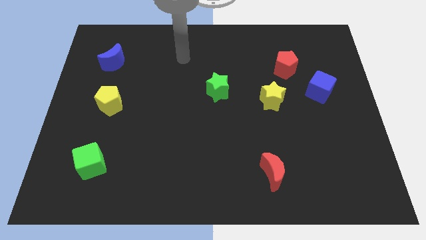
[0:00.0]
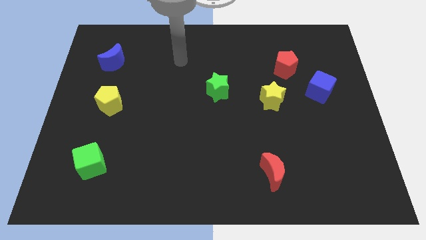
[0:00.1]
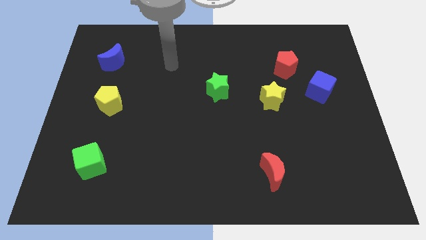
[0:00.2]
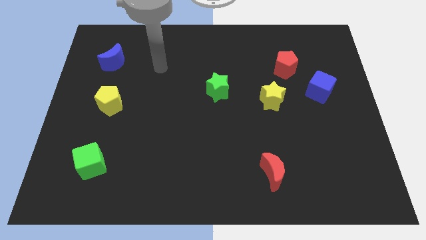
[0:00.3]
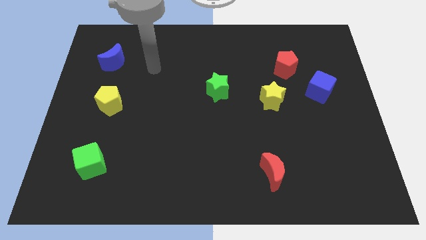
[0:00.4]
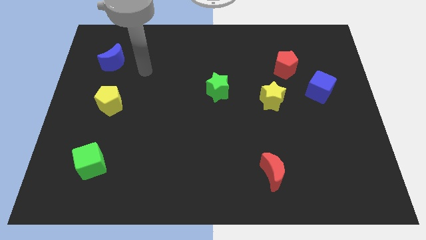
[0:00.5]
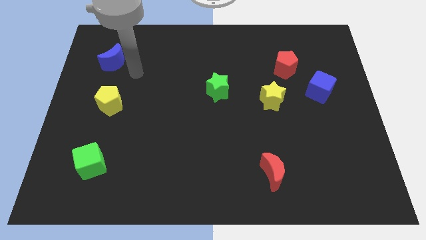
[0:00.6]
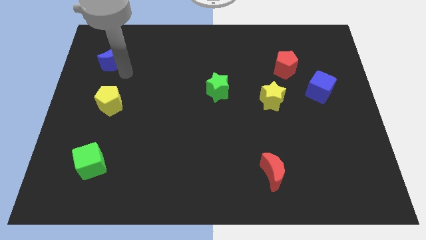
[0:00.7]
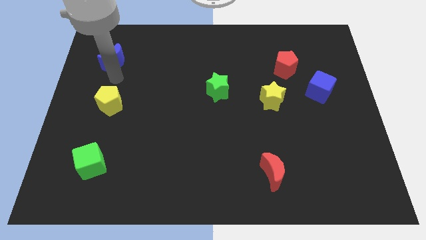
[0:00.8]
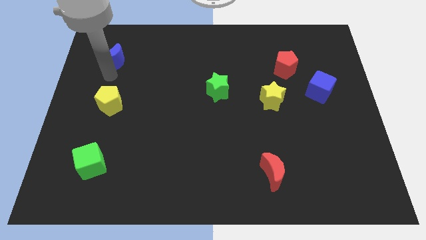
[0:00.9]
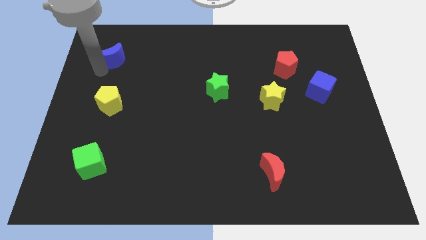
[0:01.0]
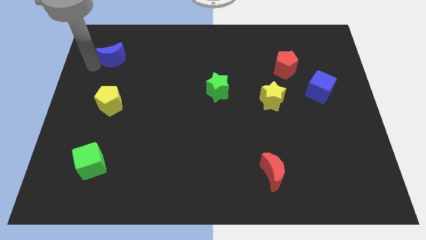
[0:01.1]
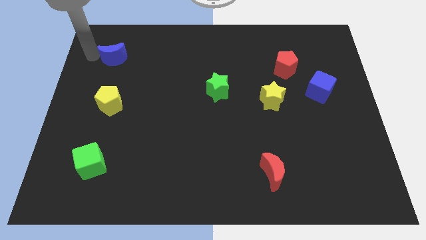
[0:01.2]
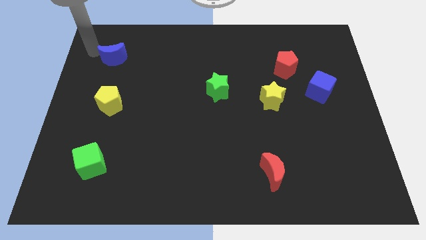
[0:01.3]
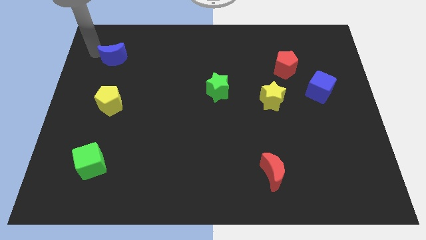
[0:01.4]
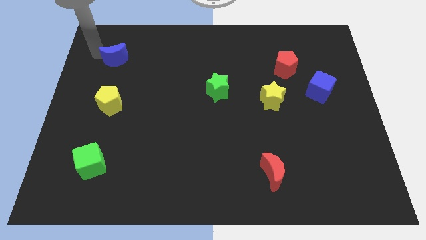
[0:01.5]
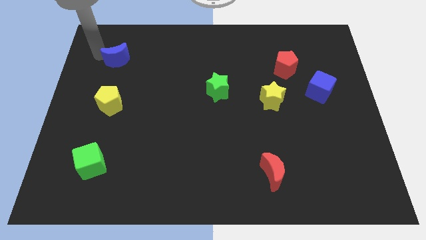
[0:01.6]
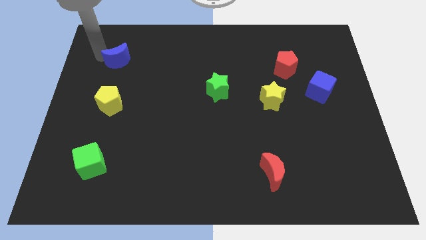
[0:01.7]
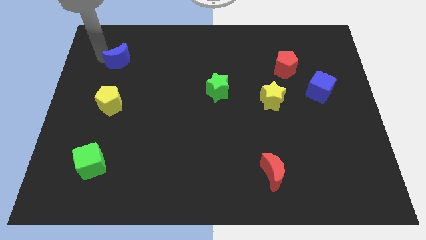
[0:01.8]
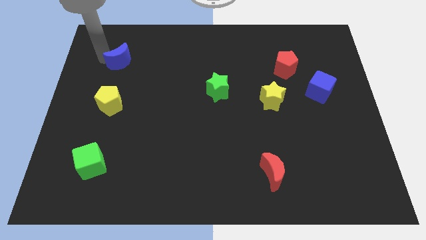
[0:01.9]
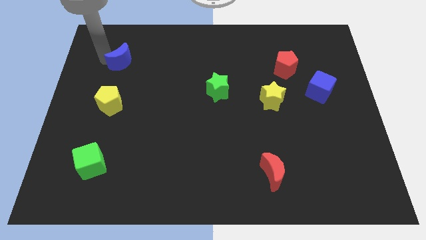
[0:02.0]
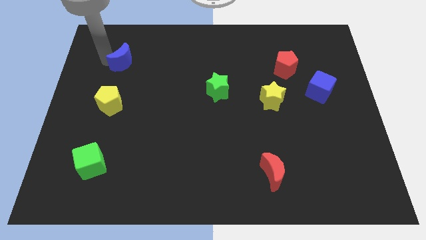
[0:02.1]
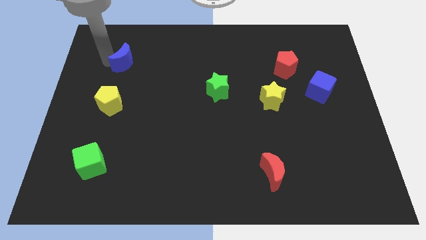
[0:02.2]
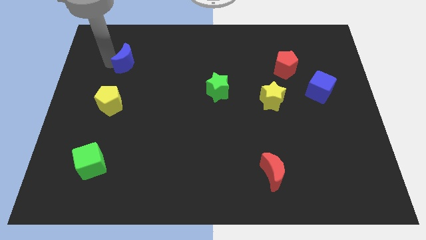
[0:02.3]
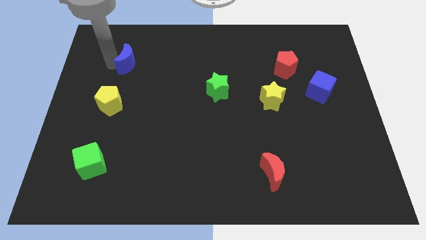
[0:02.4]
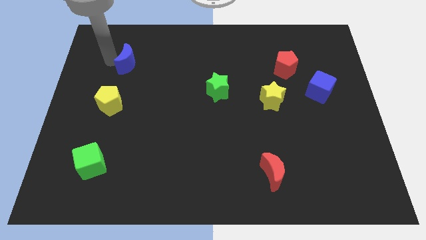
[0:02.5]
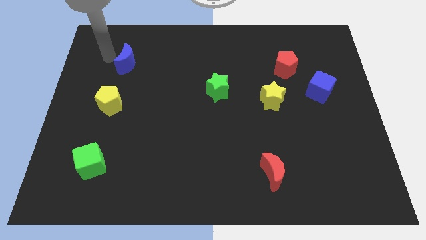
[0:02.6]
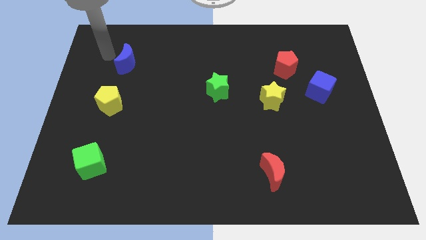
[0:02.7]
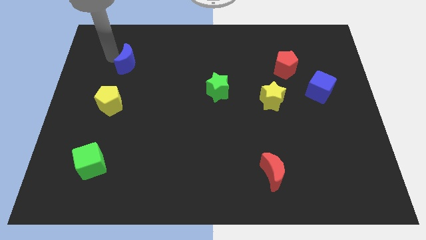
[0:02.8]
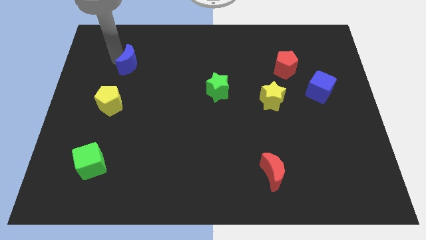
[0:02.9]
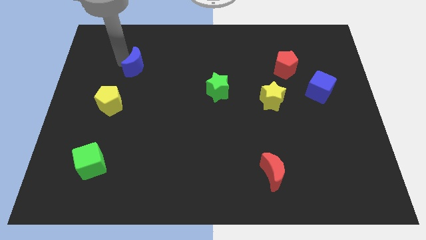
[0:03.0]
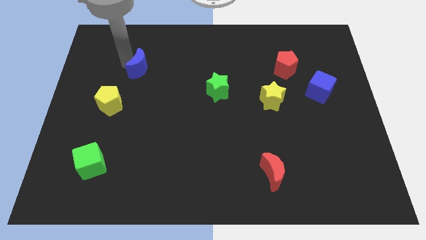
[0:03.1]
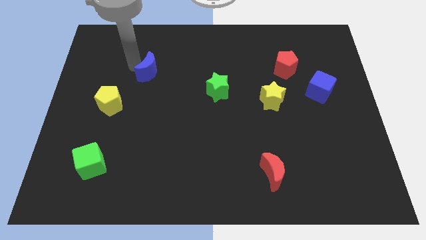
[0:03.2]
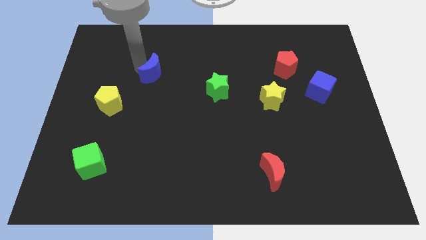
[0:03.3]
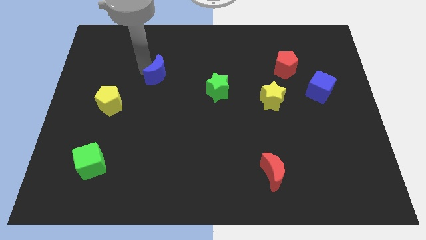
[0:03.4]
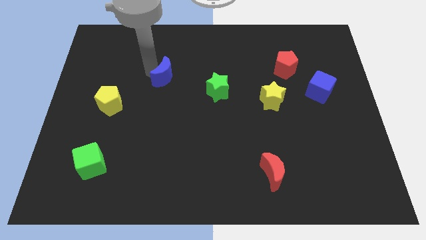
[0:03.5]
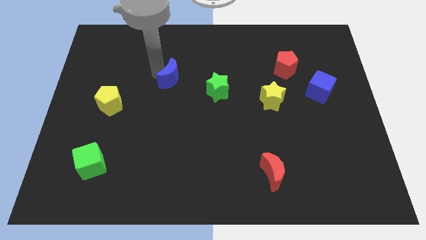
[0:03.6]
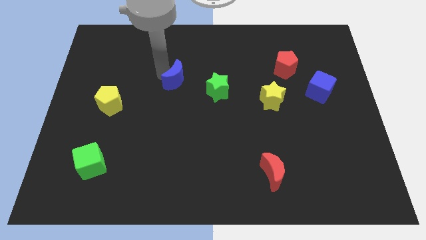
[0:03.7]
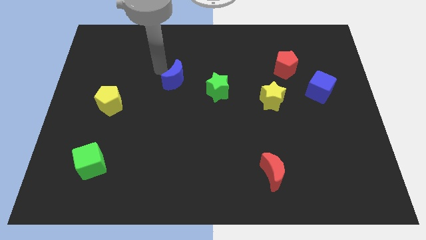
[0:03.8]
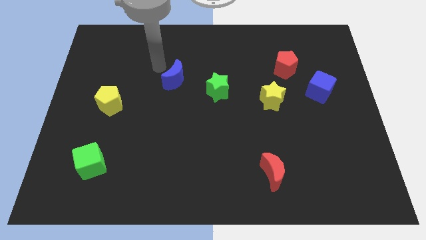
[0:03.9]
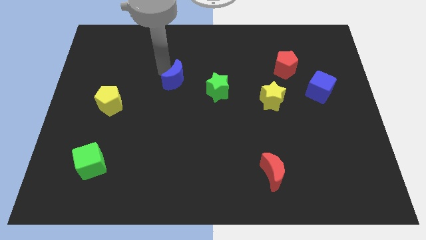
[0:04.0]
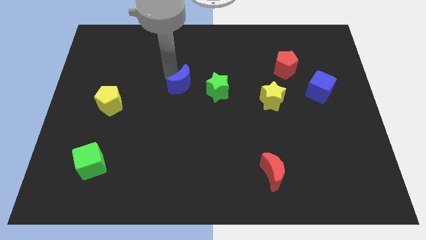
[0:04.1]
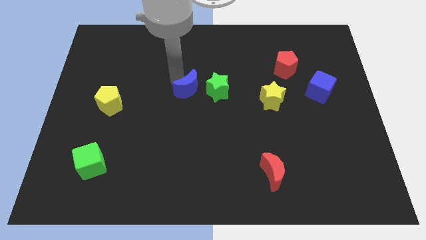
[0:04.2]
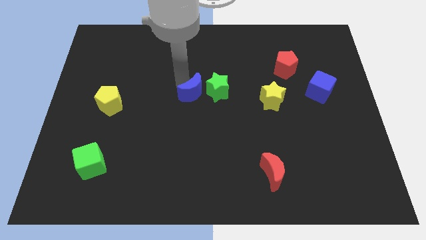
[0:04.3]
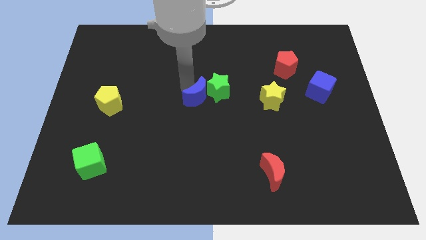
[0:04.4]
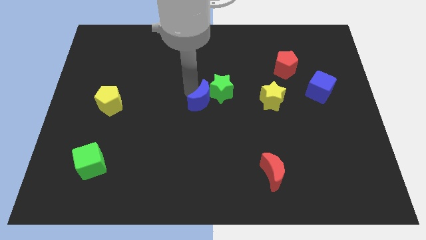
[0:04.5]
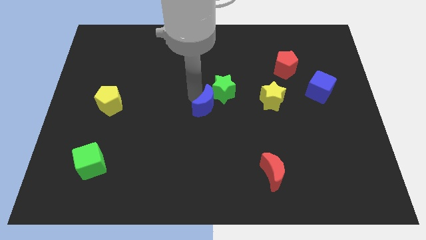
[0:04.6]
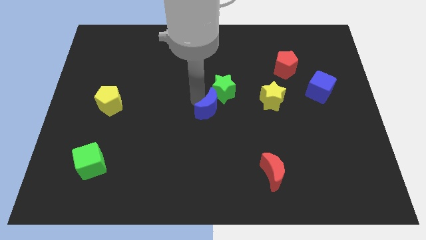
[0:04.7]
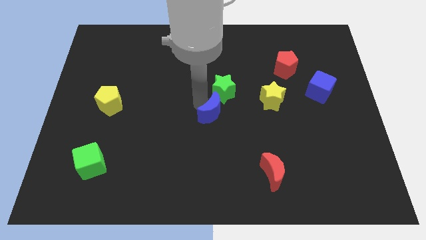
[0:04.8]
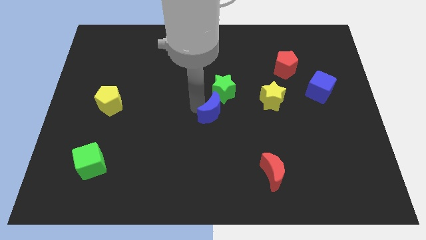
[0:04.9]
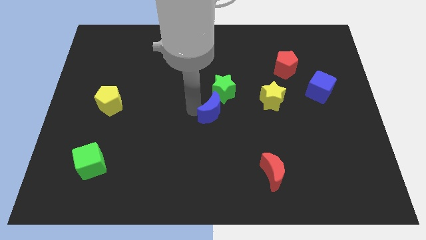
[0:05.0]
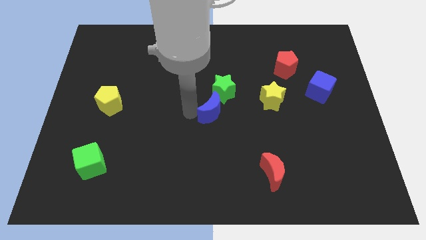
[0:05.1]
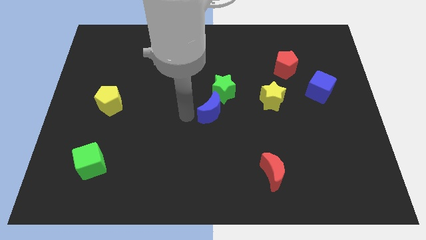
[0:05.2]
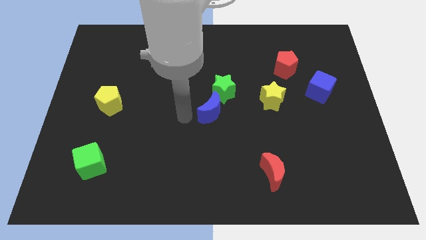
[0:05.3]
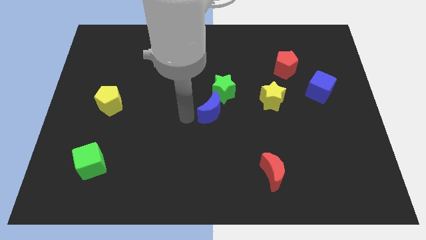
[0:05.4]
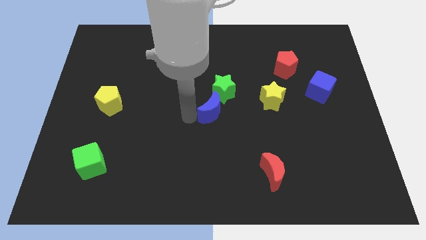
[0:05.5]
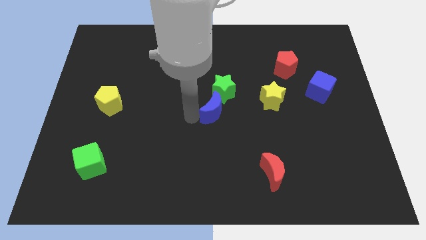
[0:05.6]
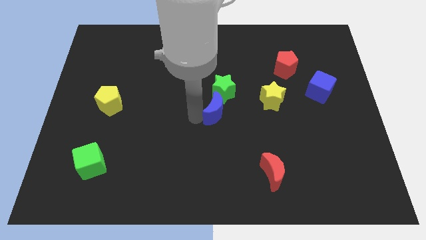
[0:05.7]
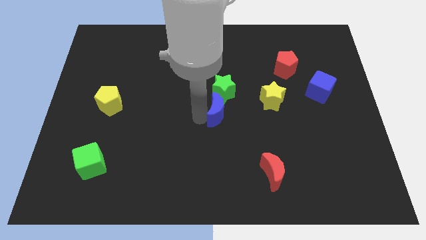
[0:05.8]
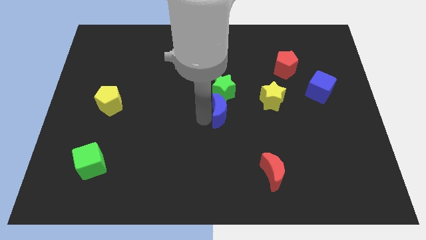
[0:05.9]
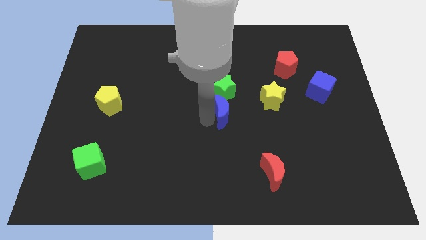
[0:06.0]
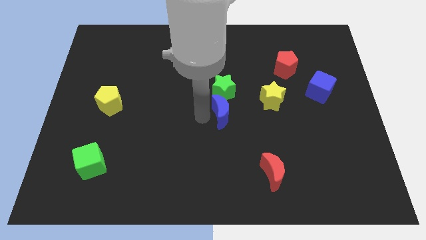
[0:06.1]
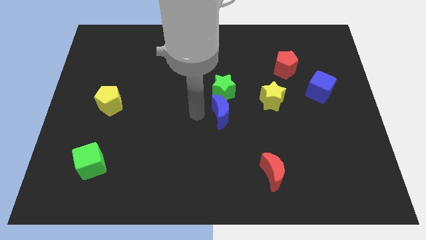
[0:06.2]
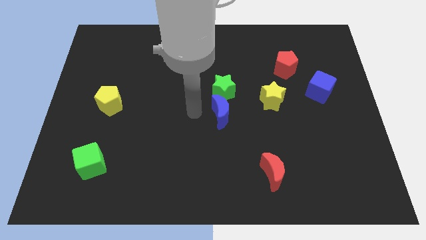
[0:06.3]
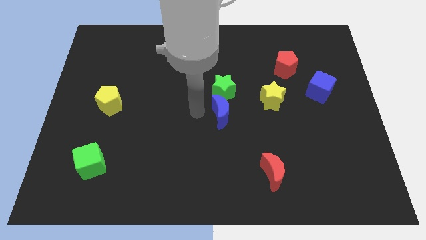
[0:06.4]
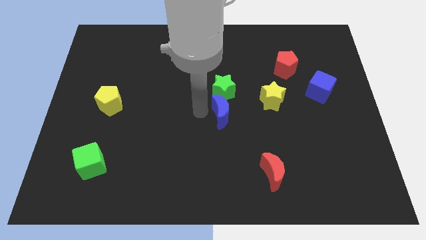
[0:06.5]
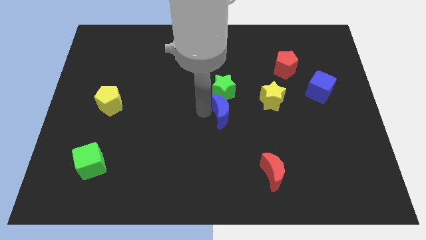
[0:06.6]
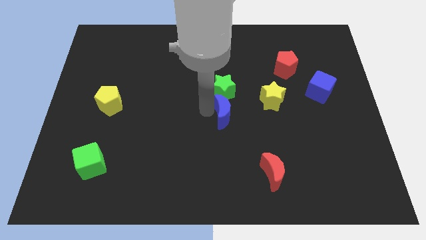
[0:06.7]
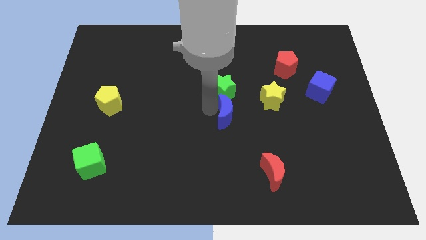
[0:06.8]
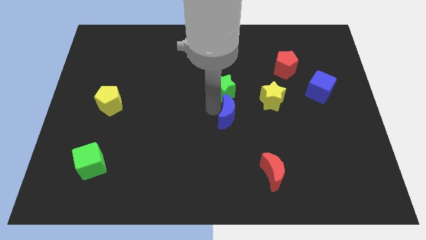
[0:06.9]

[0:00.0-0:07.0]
put the blue moon diagonally down and to the left of the yellow star
